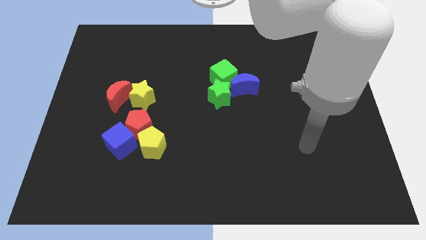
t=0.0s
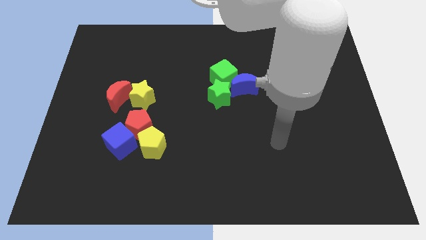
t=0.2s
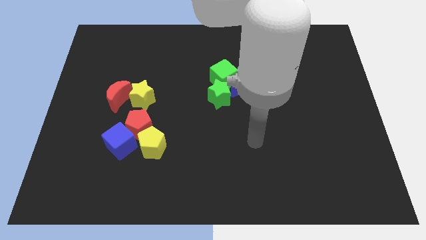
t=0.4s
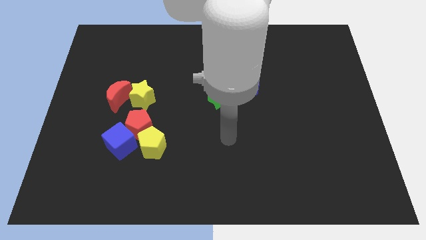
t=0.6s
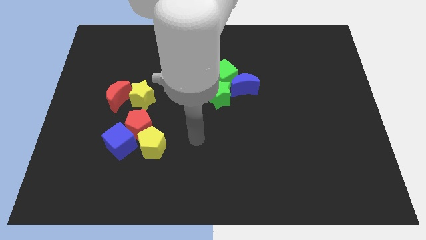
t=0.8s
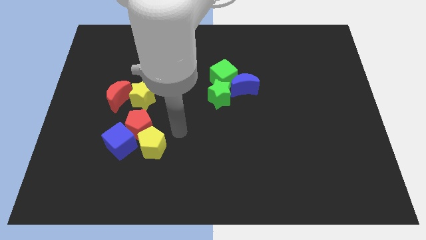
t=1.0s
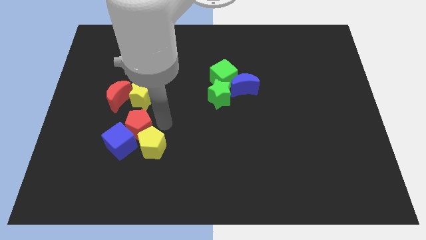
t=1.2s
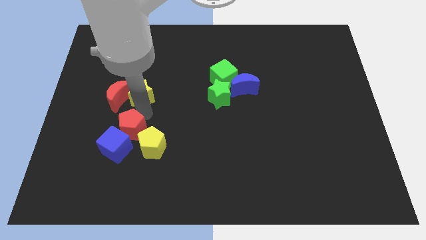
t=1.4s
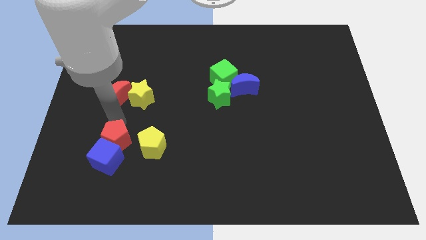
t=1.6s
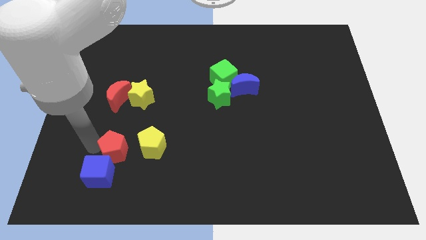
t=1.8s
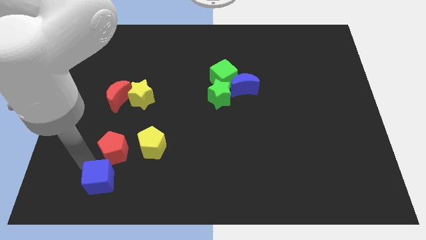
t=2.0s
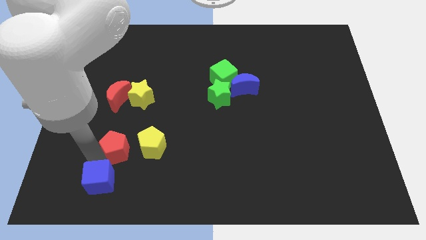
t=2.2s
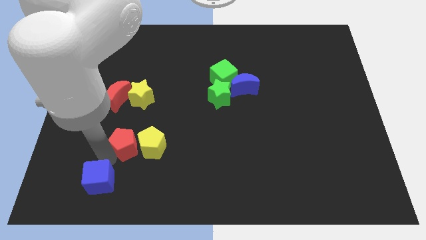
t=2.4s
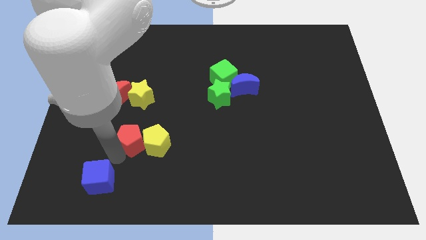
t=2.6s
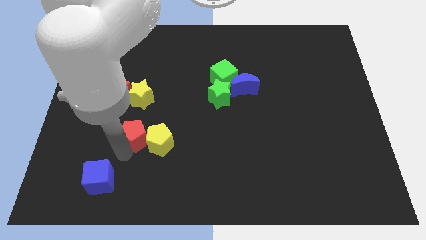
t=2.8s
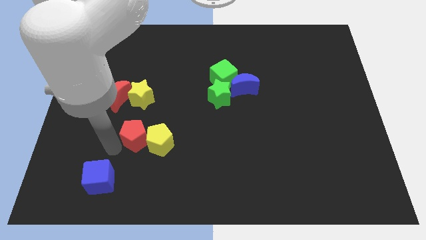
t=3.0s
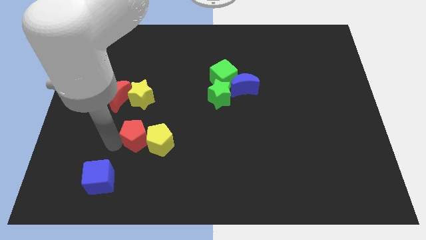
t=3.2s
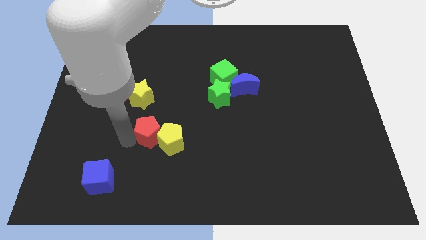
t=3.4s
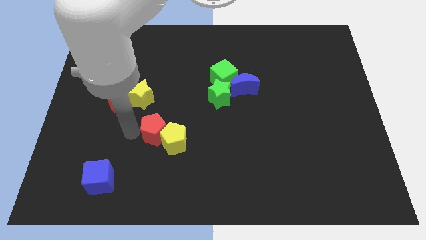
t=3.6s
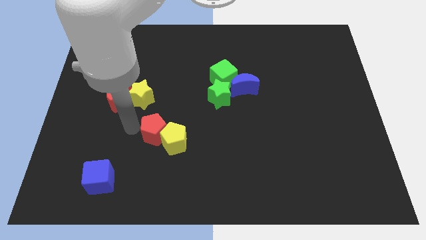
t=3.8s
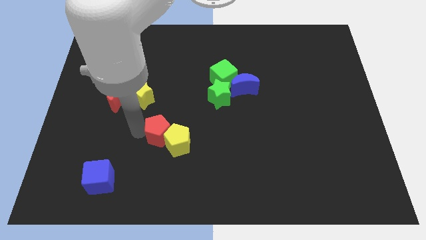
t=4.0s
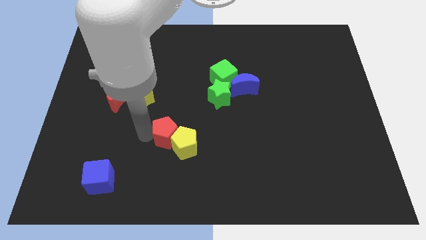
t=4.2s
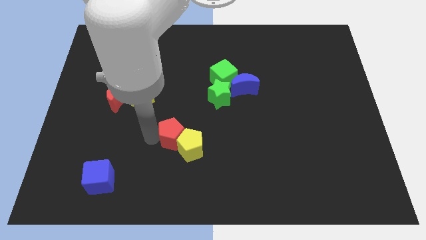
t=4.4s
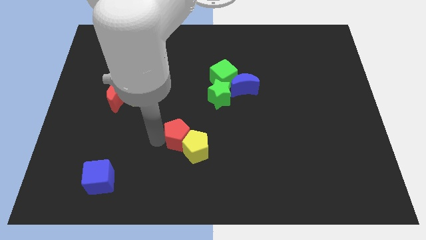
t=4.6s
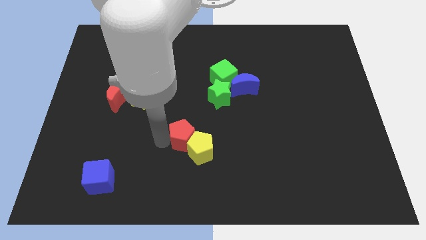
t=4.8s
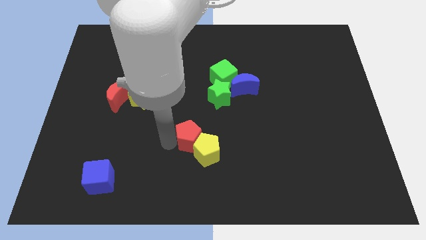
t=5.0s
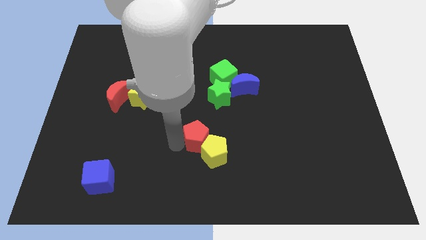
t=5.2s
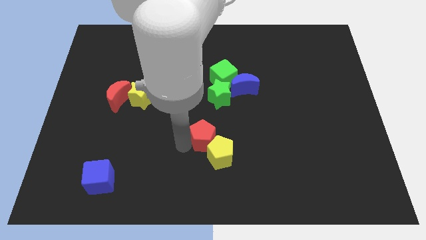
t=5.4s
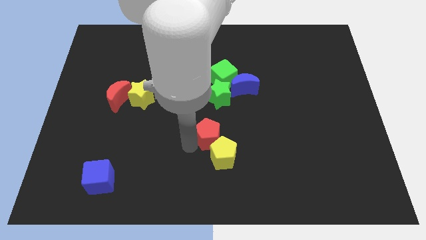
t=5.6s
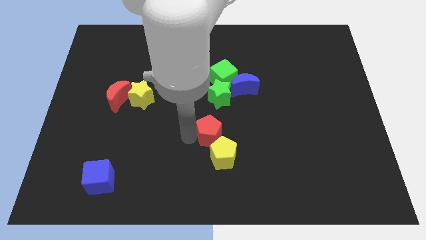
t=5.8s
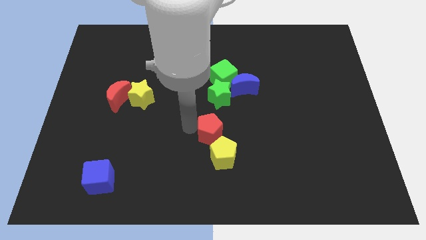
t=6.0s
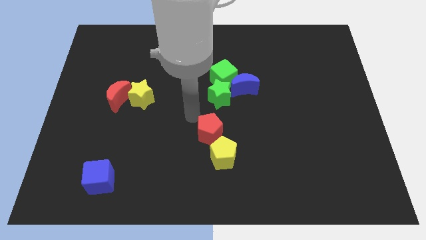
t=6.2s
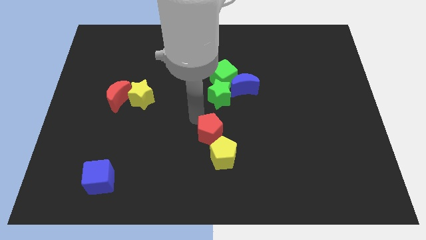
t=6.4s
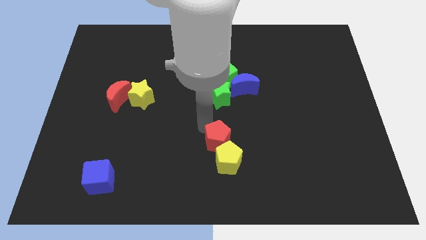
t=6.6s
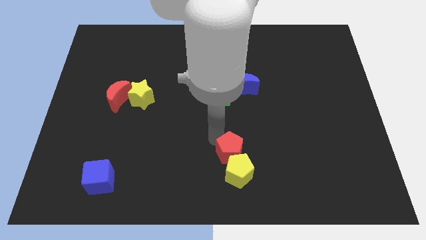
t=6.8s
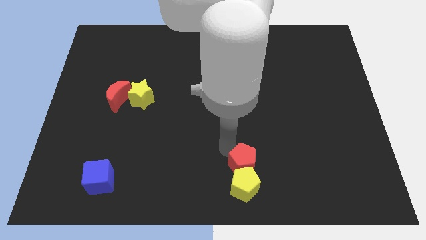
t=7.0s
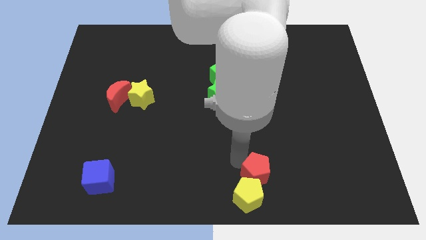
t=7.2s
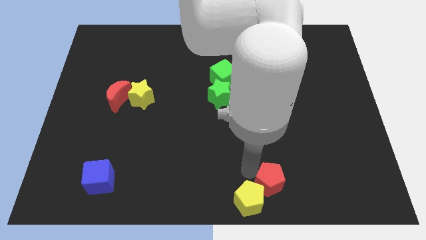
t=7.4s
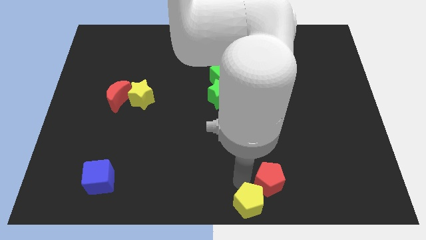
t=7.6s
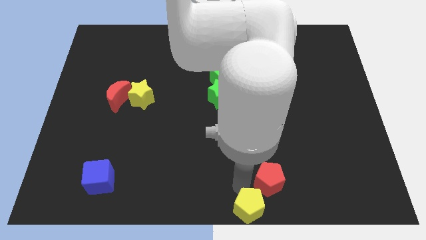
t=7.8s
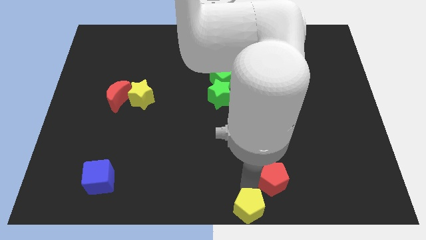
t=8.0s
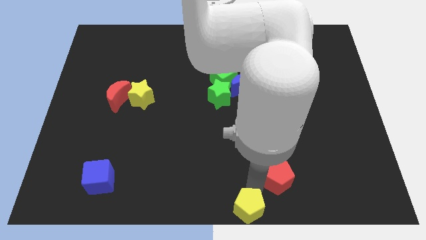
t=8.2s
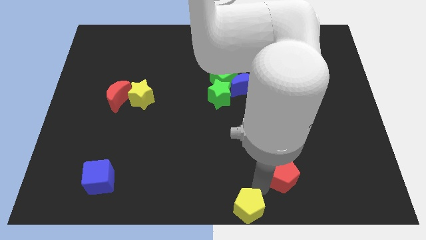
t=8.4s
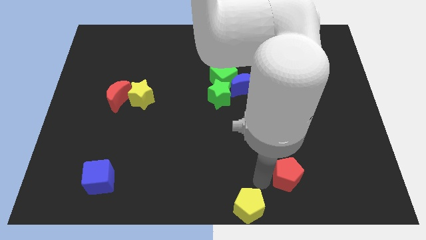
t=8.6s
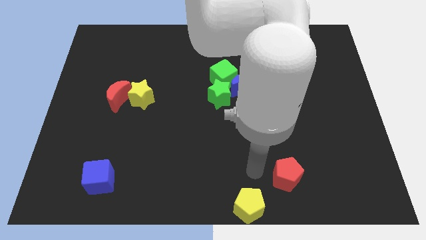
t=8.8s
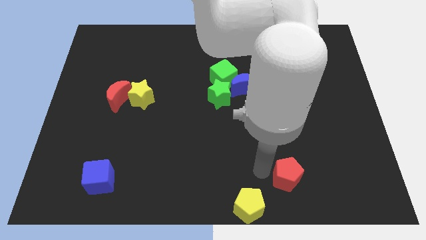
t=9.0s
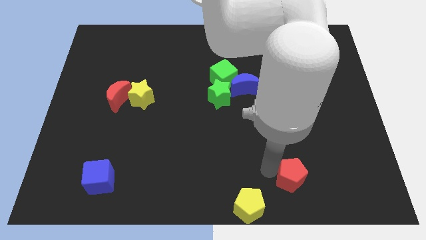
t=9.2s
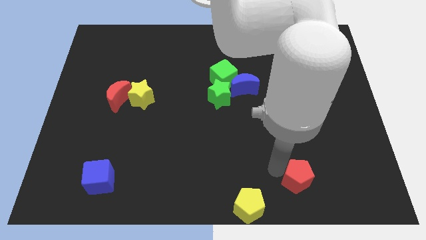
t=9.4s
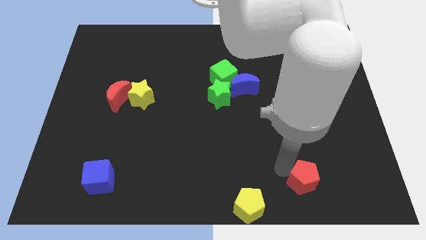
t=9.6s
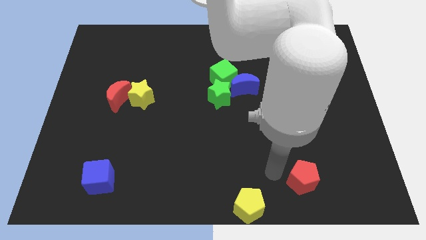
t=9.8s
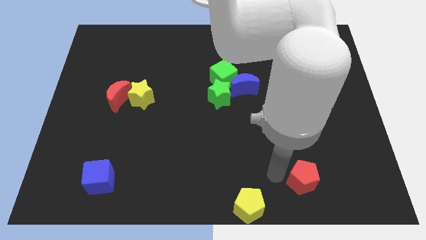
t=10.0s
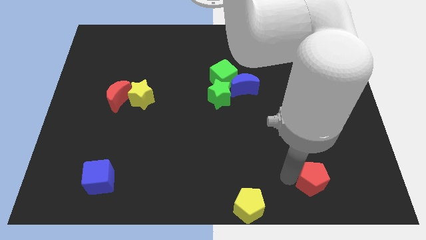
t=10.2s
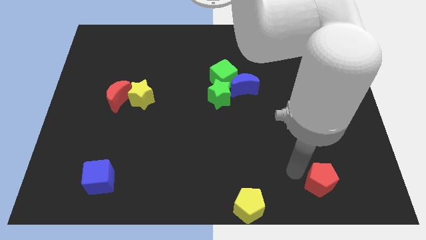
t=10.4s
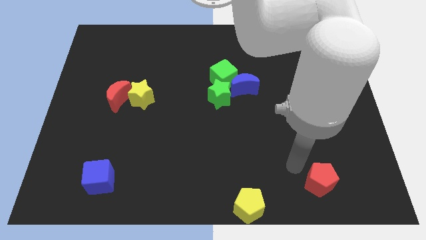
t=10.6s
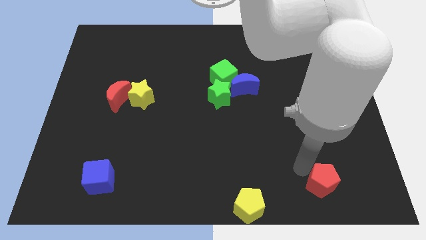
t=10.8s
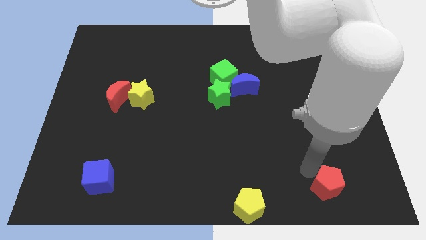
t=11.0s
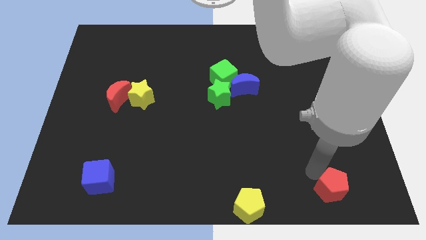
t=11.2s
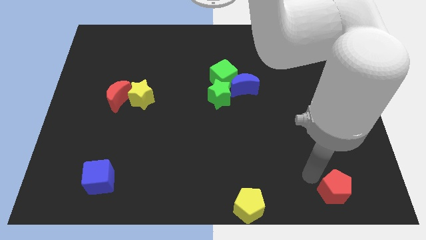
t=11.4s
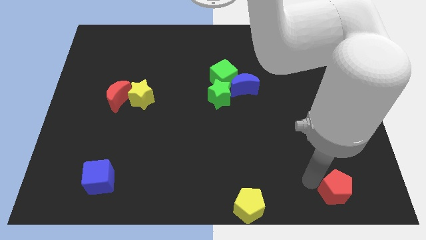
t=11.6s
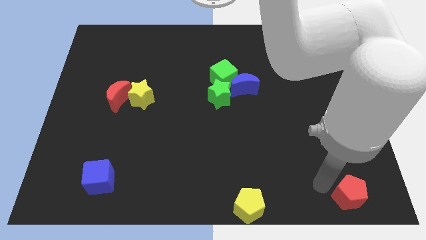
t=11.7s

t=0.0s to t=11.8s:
move the red pentagon to the bottom right corner

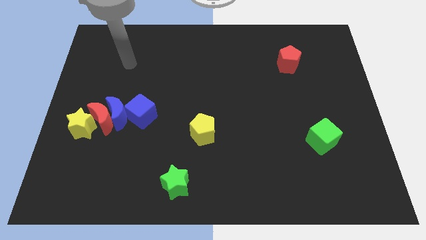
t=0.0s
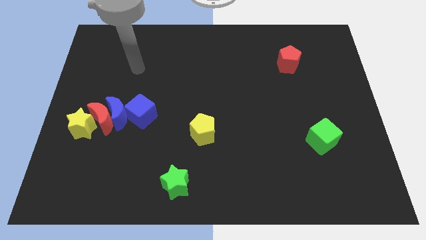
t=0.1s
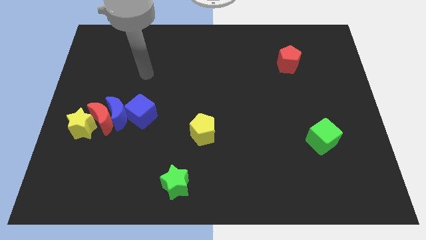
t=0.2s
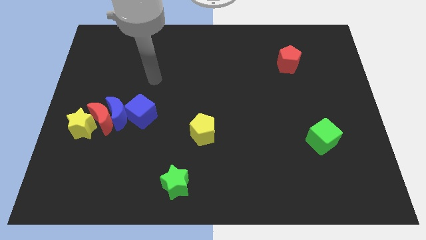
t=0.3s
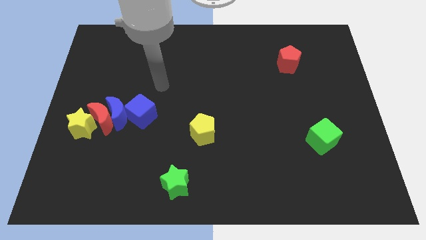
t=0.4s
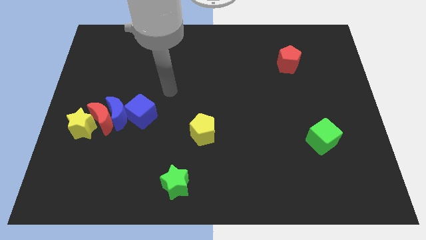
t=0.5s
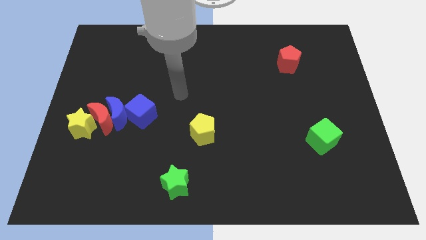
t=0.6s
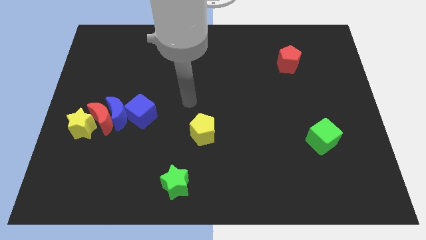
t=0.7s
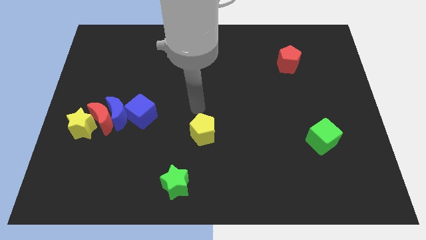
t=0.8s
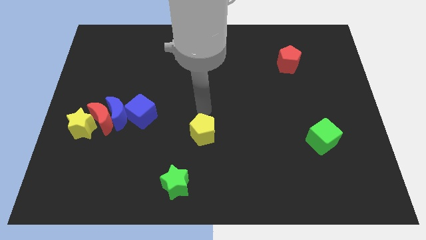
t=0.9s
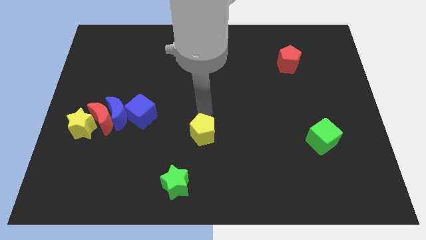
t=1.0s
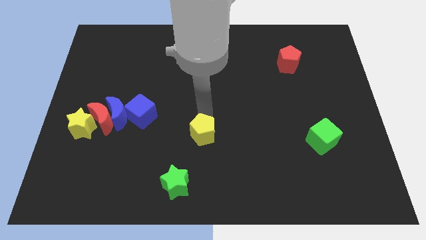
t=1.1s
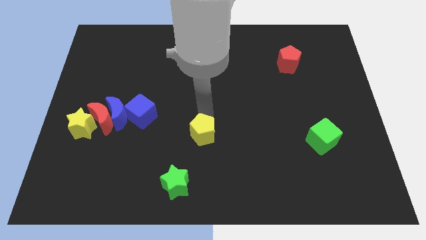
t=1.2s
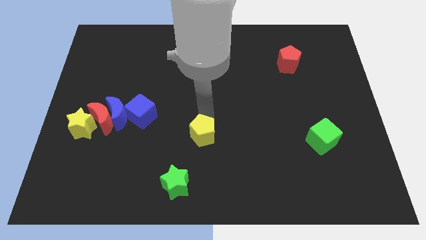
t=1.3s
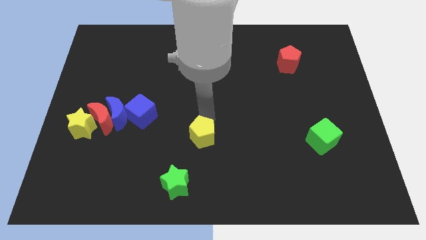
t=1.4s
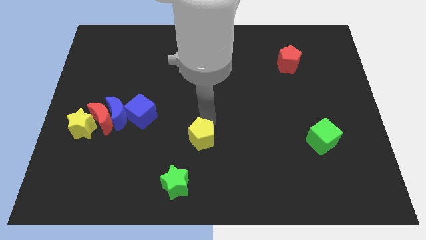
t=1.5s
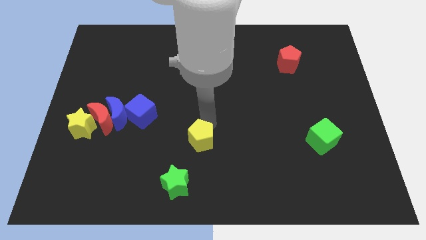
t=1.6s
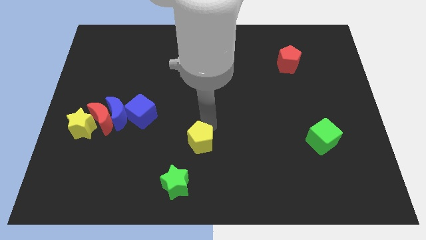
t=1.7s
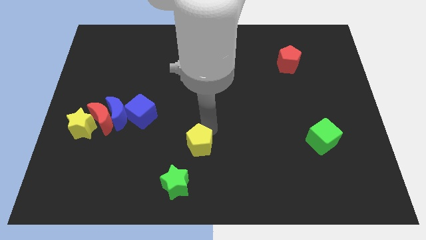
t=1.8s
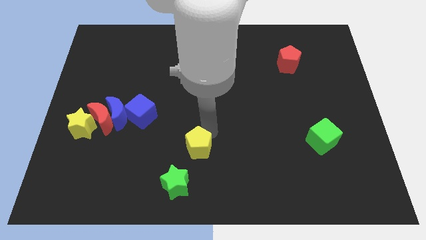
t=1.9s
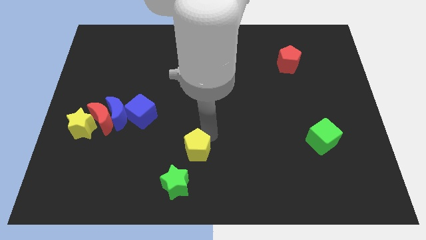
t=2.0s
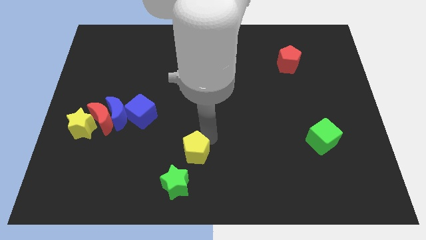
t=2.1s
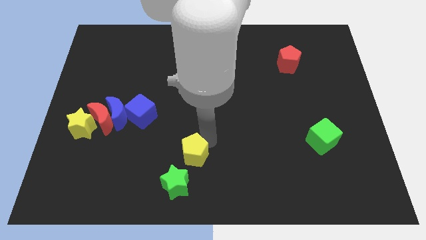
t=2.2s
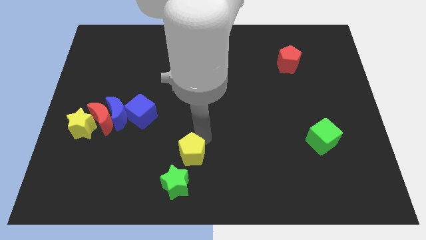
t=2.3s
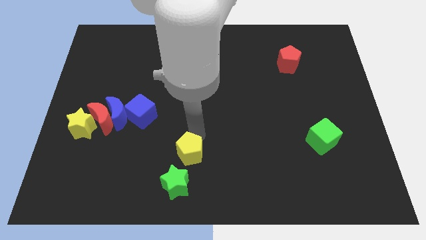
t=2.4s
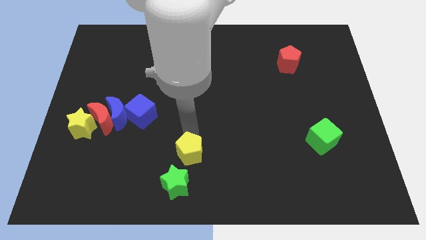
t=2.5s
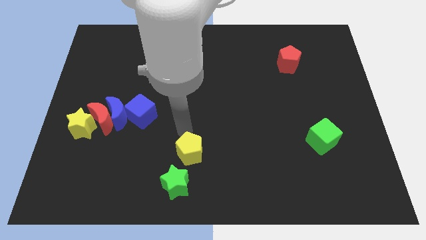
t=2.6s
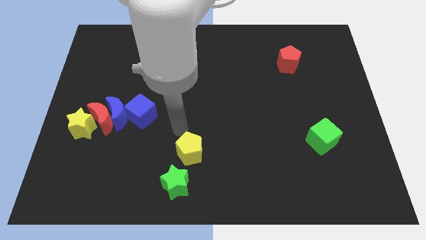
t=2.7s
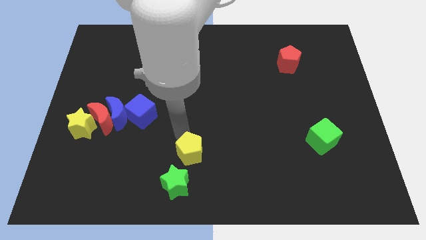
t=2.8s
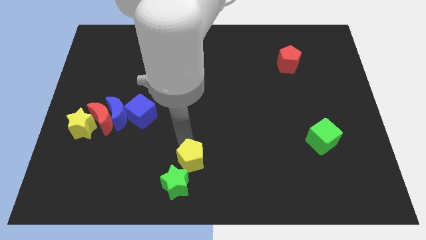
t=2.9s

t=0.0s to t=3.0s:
slide the yellow pentagon to the bottom side
